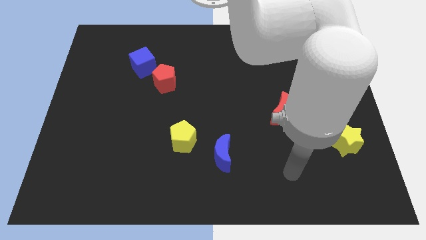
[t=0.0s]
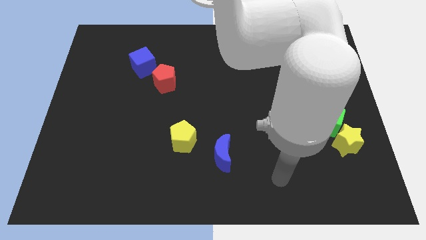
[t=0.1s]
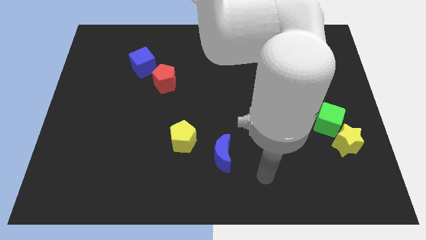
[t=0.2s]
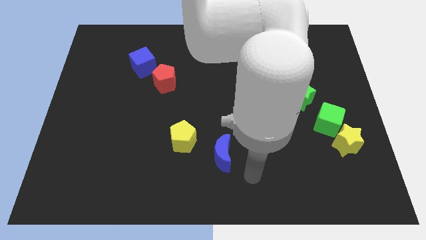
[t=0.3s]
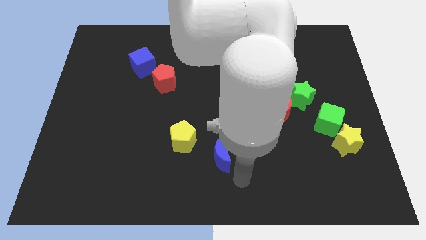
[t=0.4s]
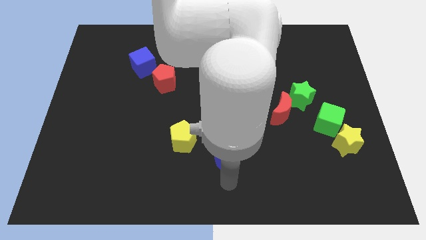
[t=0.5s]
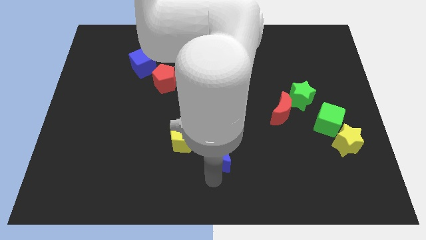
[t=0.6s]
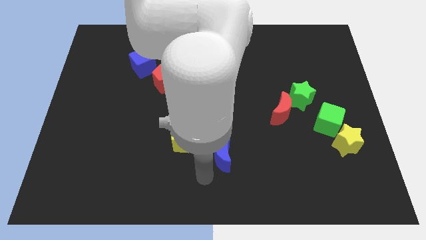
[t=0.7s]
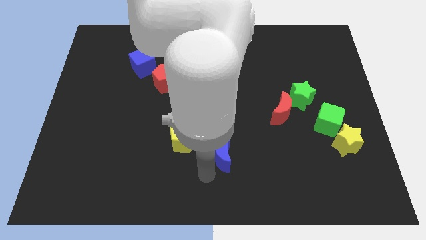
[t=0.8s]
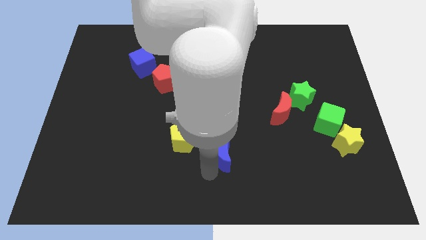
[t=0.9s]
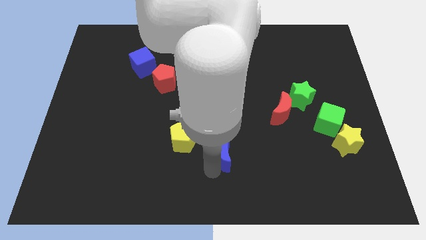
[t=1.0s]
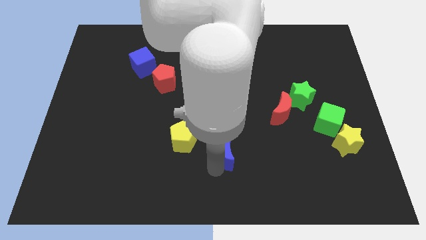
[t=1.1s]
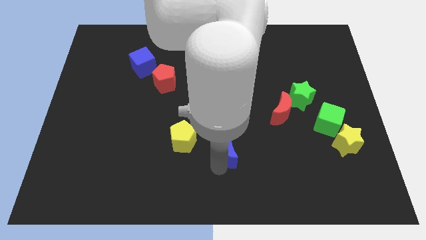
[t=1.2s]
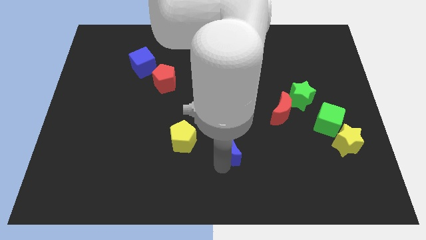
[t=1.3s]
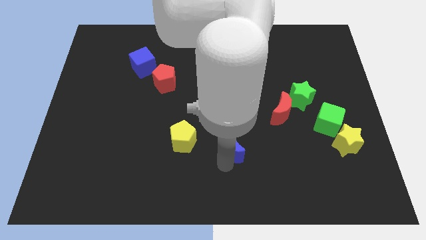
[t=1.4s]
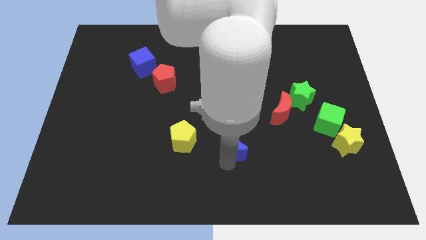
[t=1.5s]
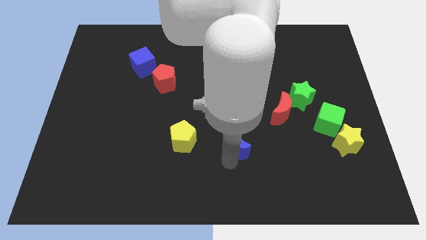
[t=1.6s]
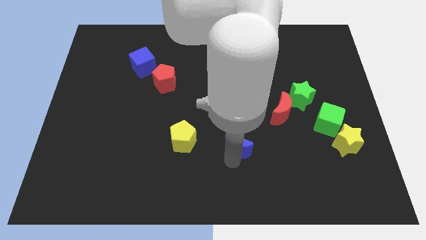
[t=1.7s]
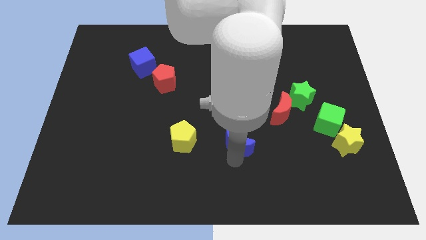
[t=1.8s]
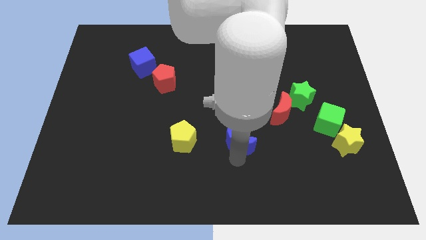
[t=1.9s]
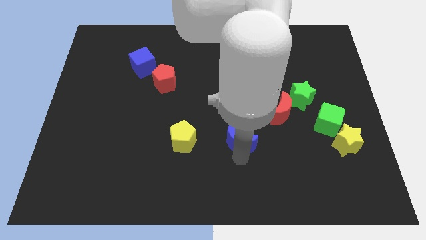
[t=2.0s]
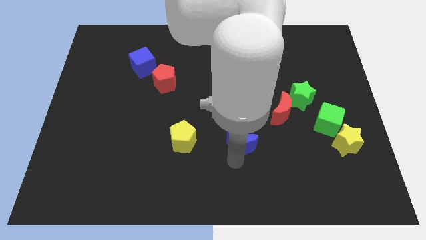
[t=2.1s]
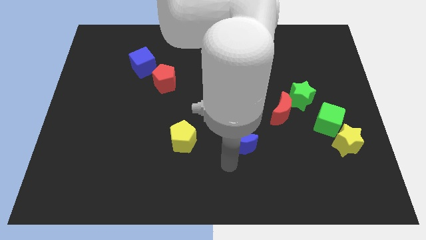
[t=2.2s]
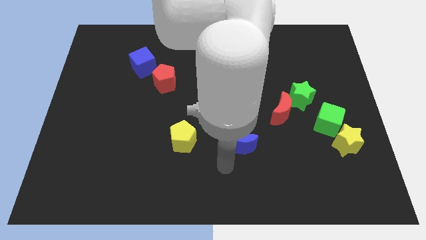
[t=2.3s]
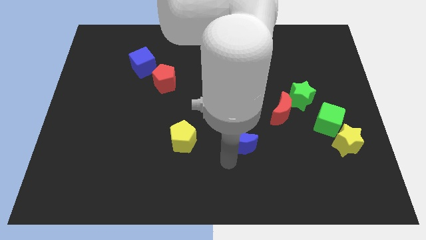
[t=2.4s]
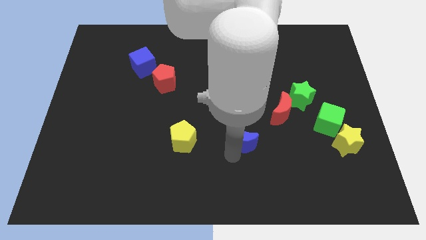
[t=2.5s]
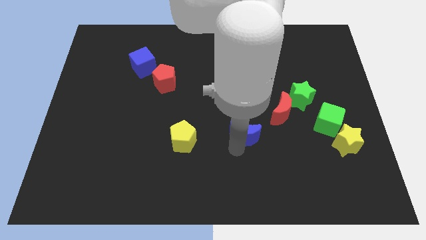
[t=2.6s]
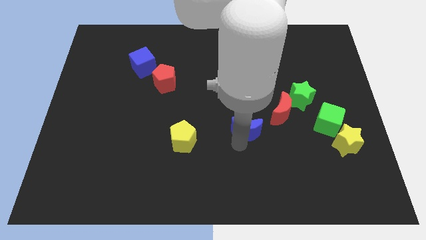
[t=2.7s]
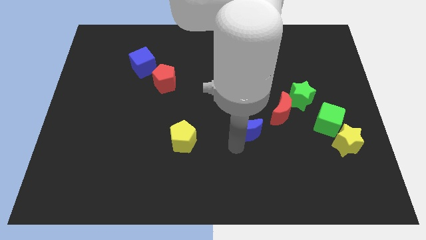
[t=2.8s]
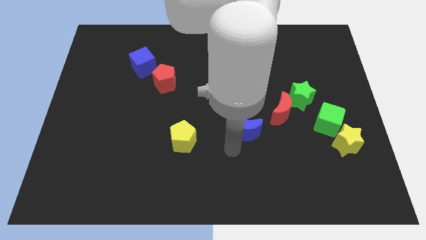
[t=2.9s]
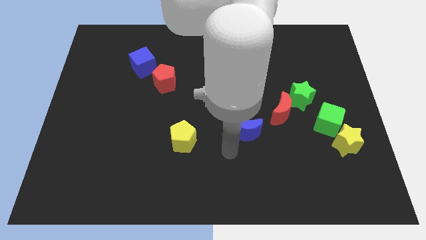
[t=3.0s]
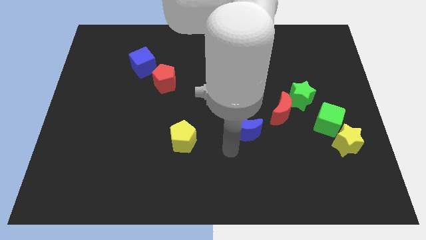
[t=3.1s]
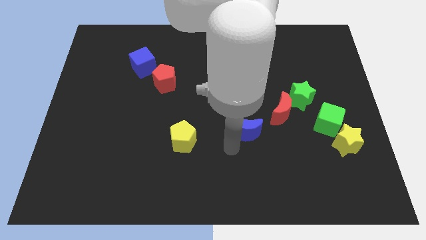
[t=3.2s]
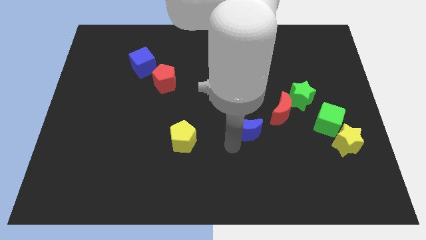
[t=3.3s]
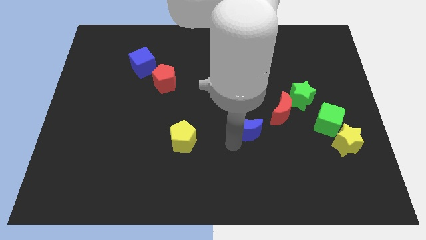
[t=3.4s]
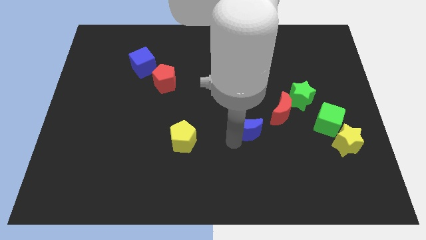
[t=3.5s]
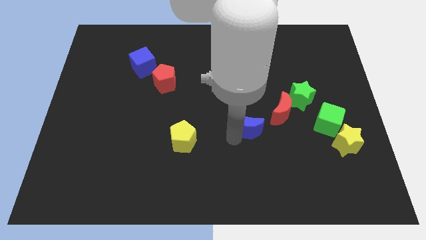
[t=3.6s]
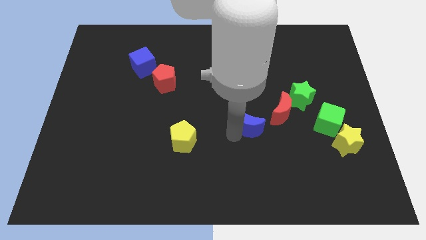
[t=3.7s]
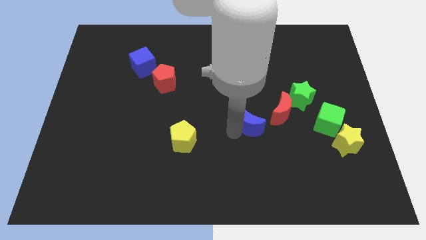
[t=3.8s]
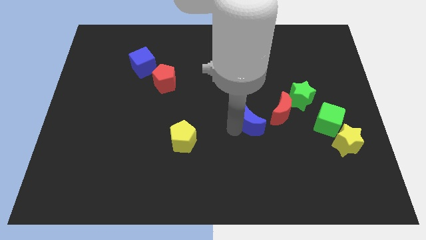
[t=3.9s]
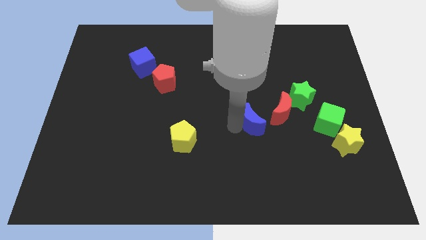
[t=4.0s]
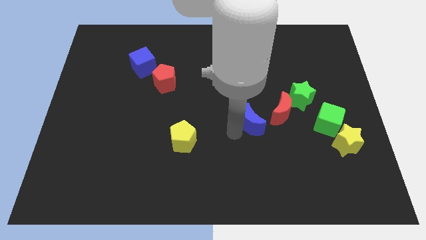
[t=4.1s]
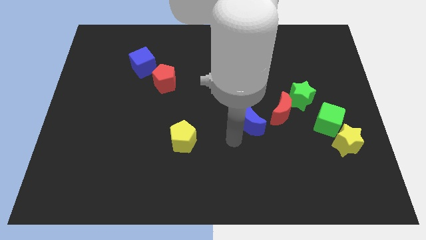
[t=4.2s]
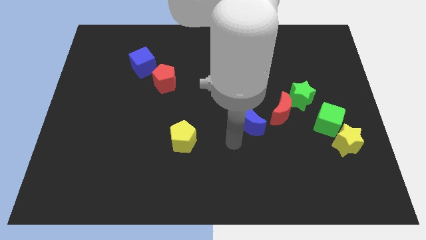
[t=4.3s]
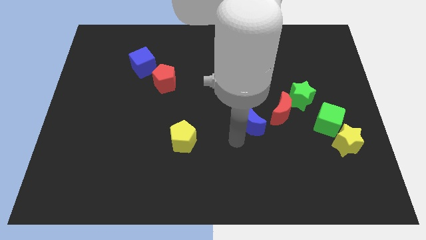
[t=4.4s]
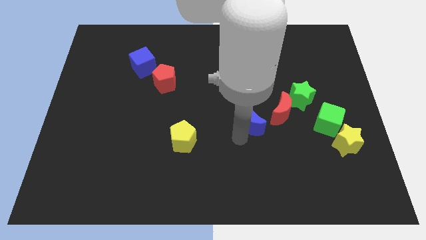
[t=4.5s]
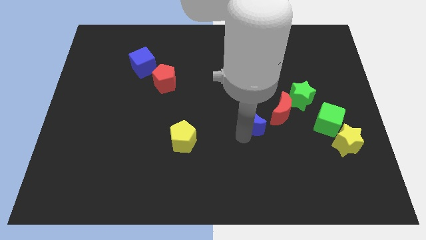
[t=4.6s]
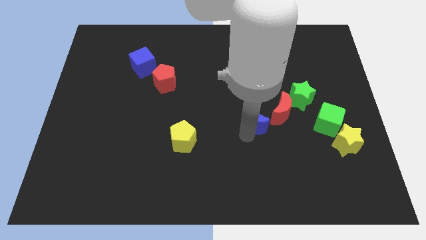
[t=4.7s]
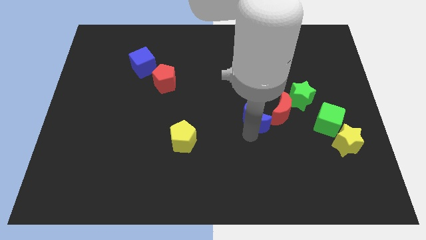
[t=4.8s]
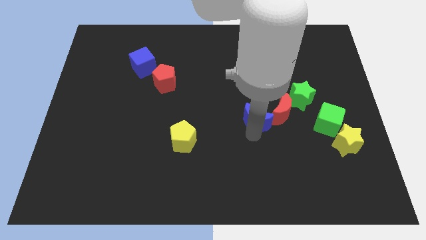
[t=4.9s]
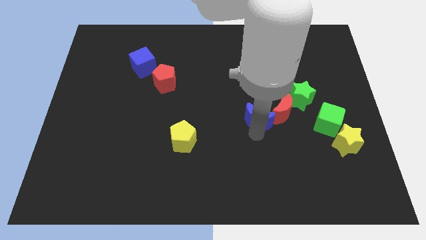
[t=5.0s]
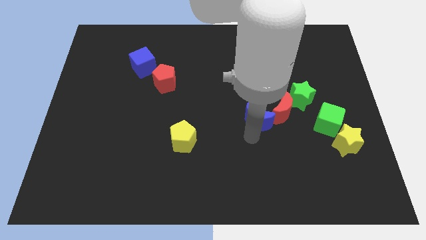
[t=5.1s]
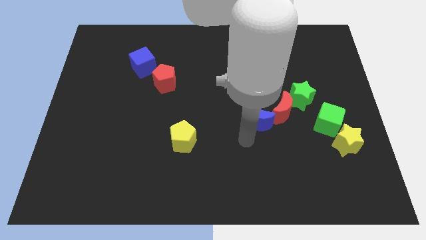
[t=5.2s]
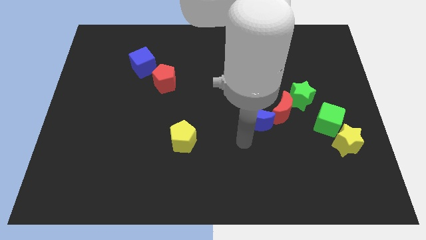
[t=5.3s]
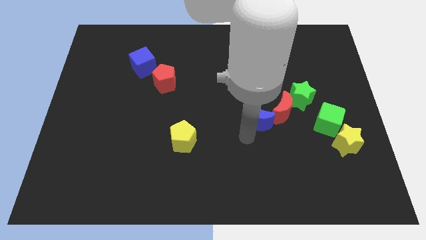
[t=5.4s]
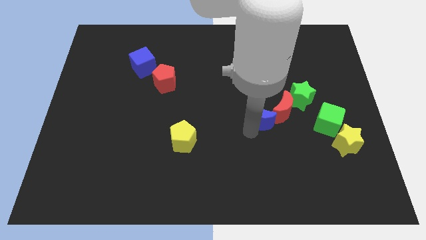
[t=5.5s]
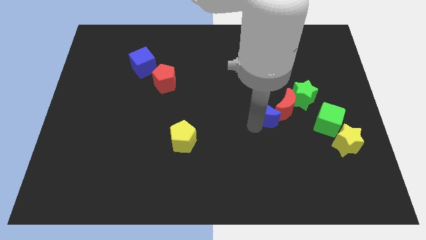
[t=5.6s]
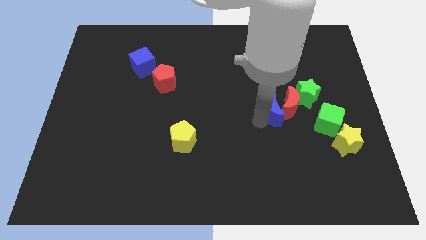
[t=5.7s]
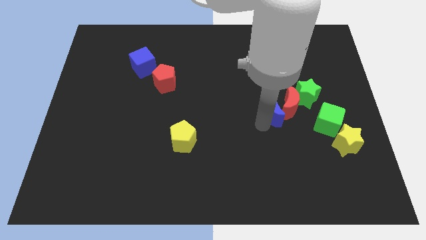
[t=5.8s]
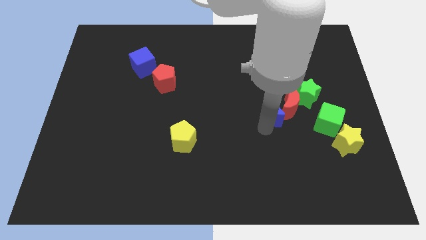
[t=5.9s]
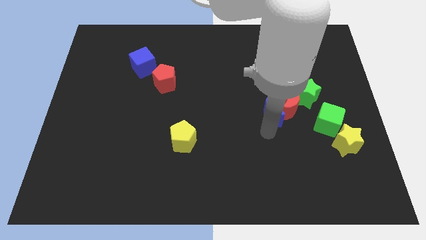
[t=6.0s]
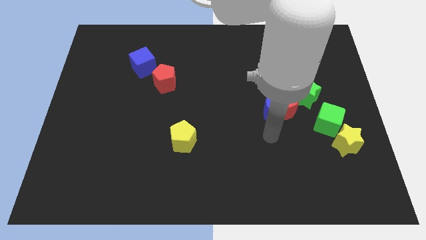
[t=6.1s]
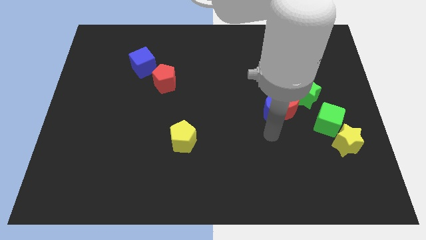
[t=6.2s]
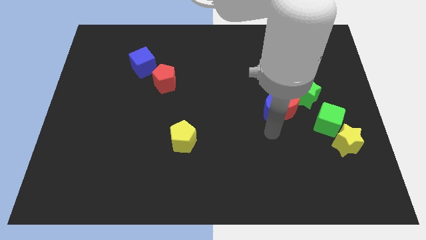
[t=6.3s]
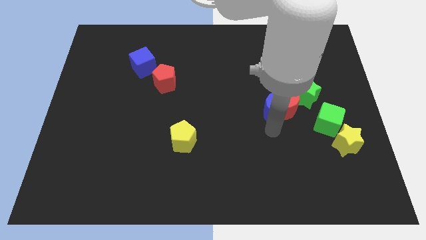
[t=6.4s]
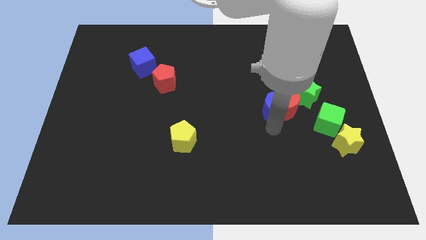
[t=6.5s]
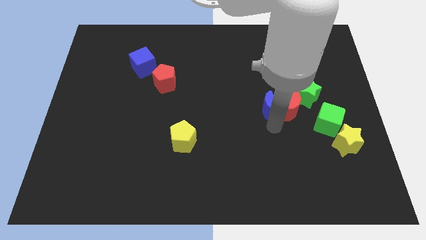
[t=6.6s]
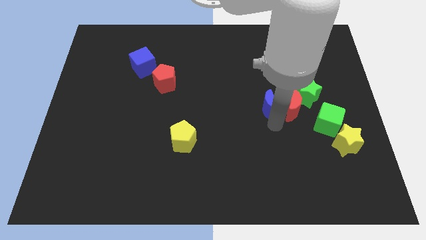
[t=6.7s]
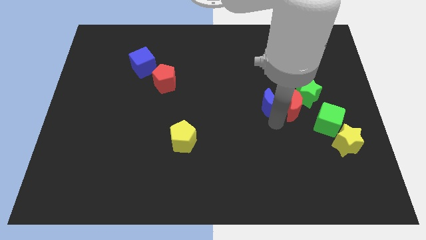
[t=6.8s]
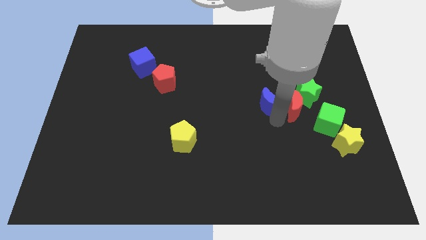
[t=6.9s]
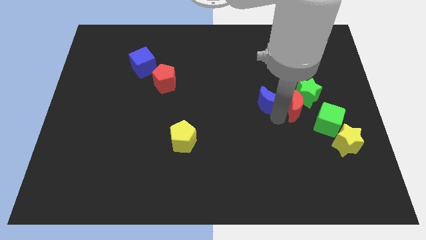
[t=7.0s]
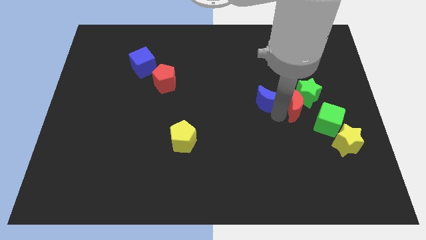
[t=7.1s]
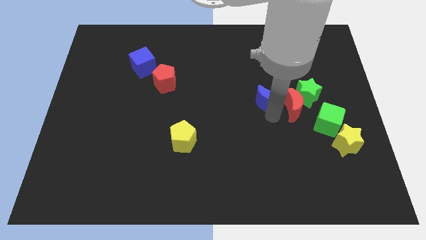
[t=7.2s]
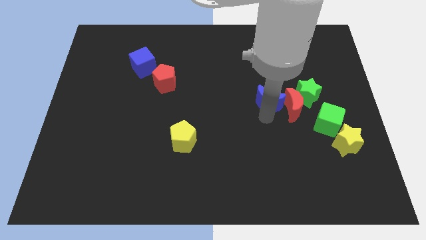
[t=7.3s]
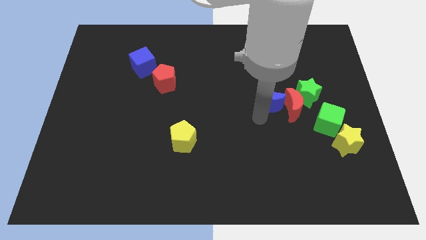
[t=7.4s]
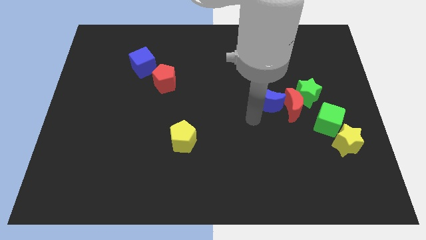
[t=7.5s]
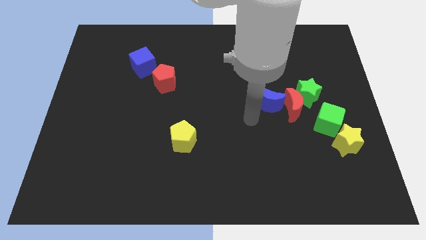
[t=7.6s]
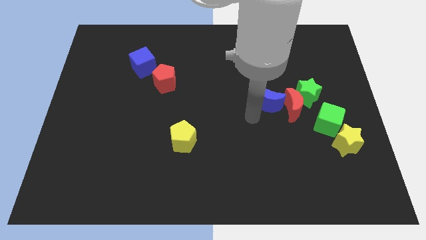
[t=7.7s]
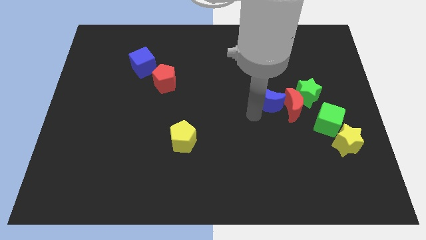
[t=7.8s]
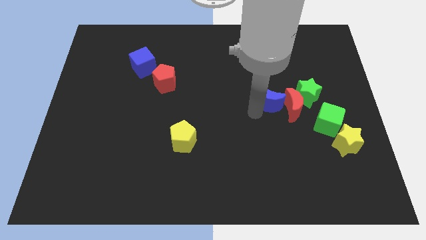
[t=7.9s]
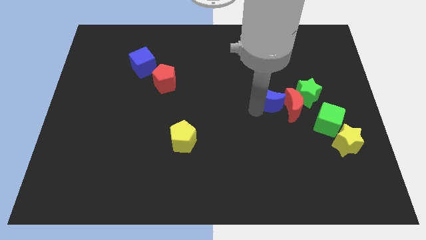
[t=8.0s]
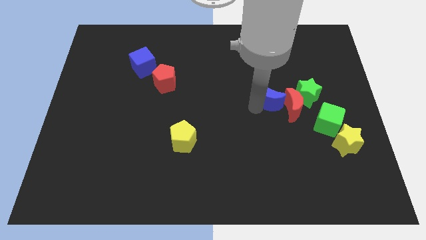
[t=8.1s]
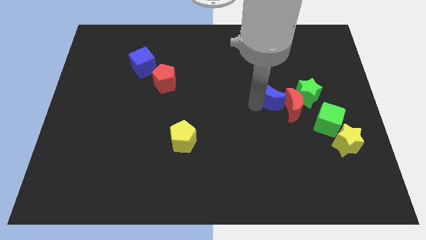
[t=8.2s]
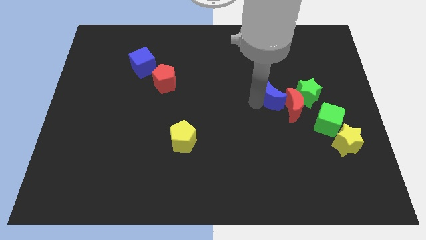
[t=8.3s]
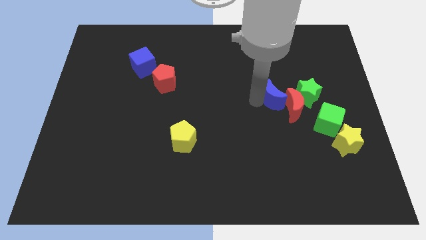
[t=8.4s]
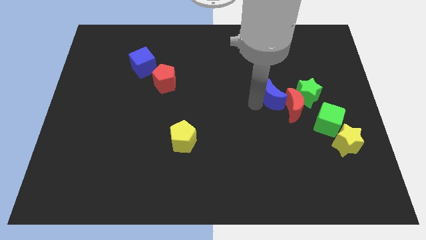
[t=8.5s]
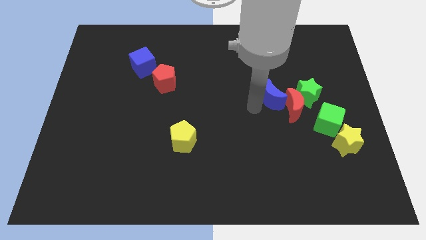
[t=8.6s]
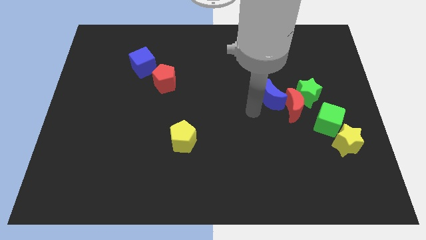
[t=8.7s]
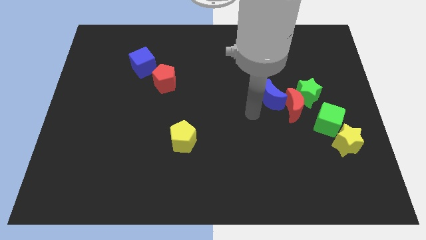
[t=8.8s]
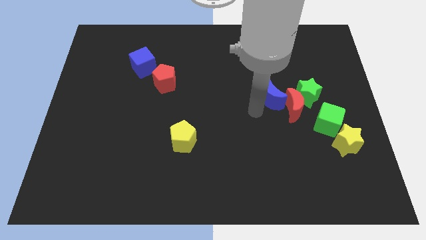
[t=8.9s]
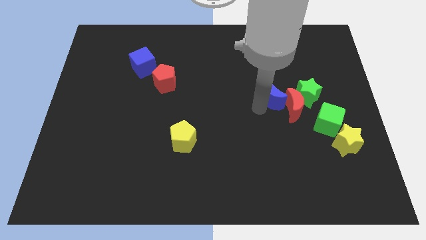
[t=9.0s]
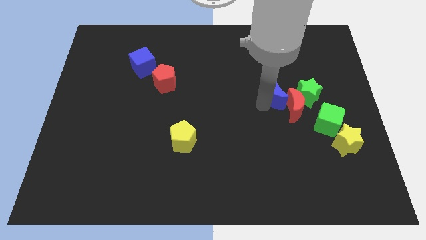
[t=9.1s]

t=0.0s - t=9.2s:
move the blue moon upwards and to the right
